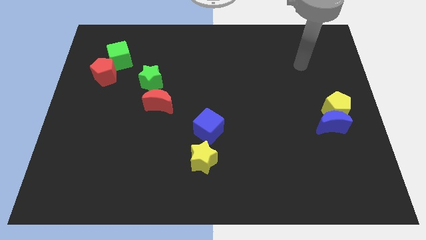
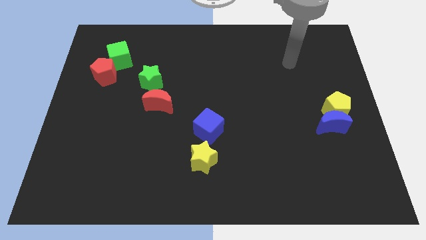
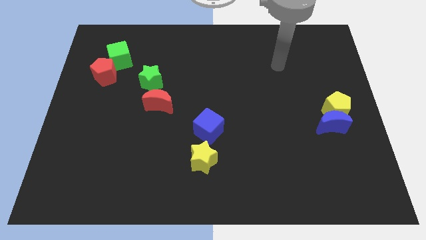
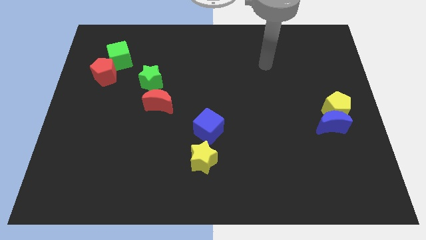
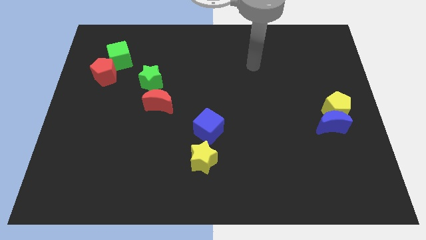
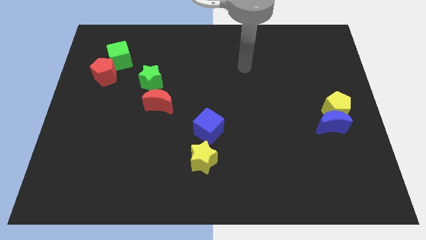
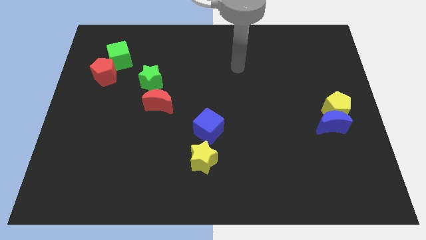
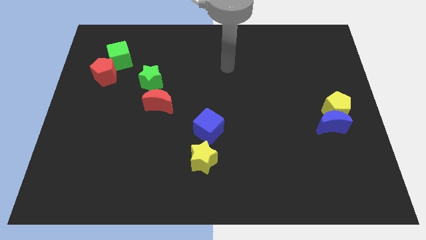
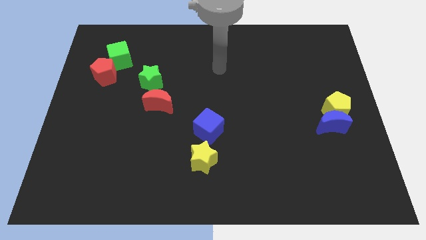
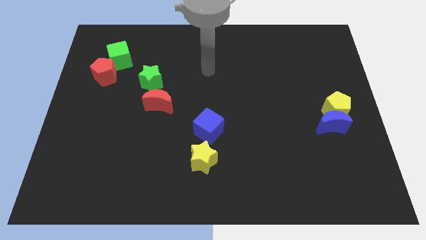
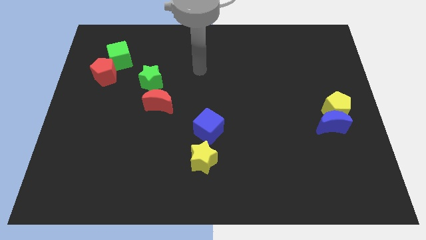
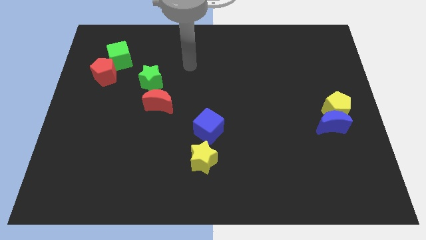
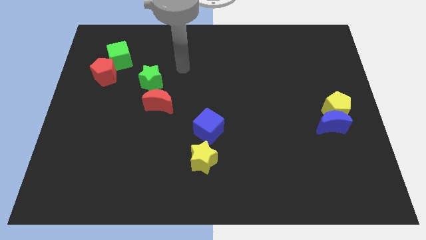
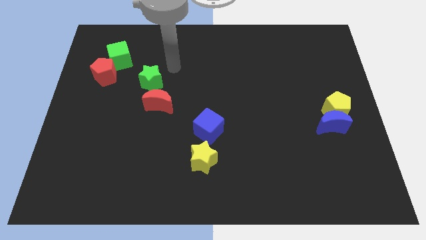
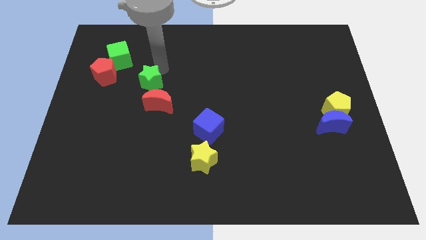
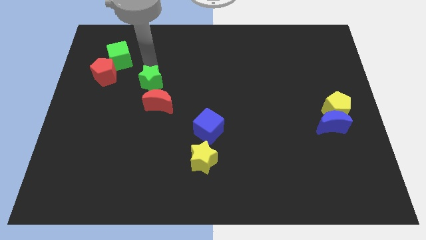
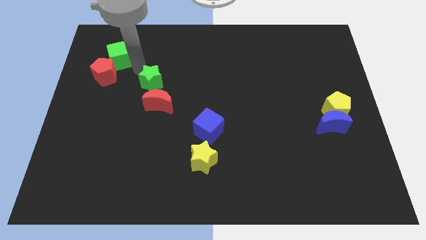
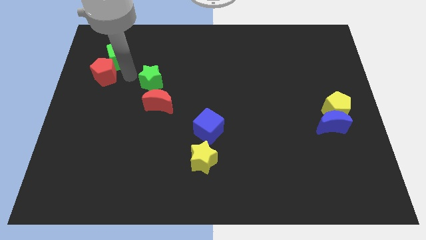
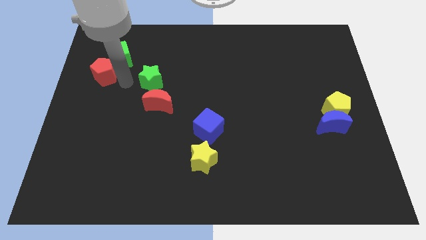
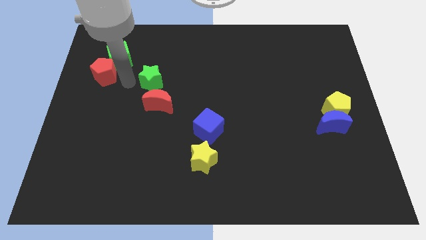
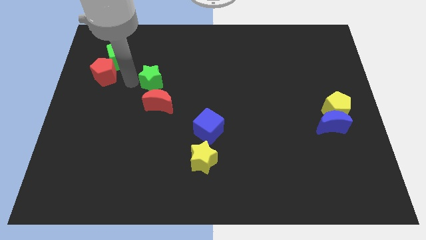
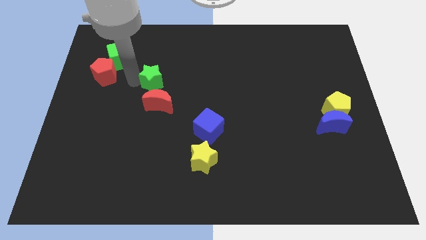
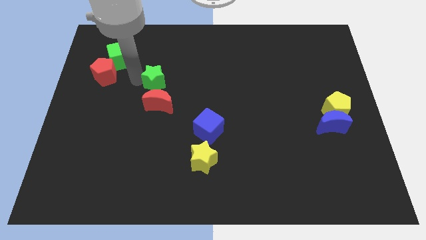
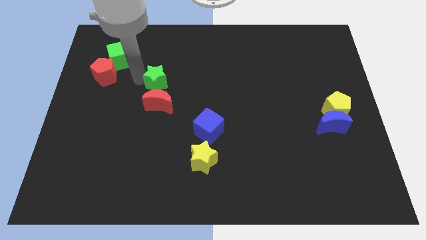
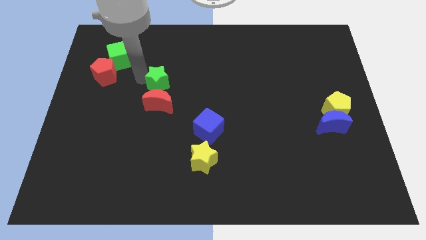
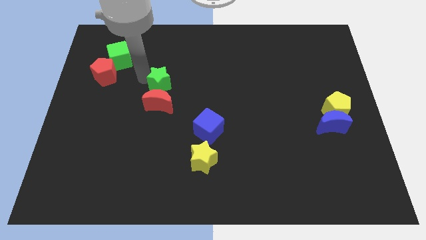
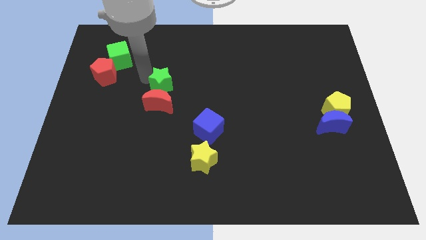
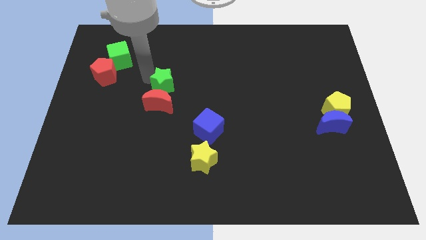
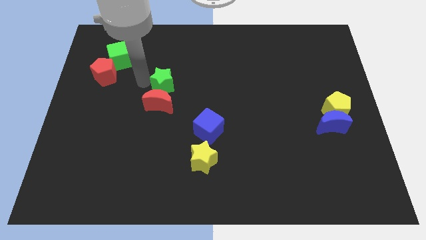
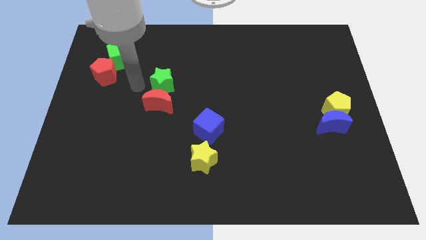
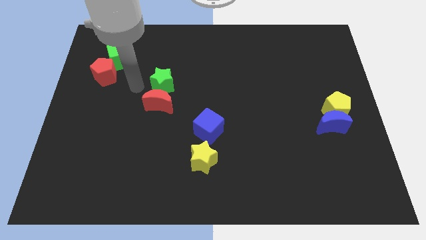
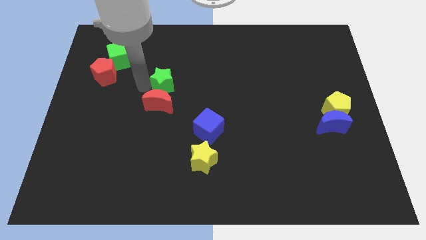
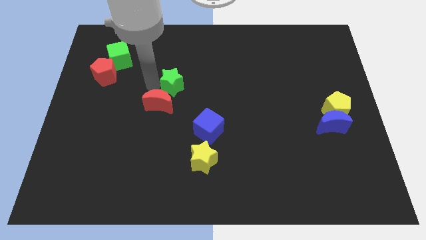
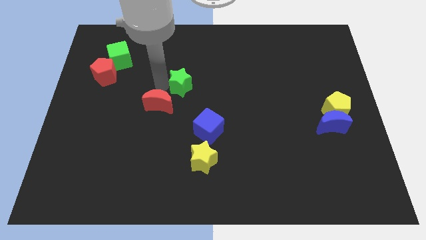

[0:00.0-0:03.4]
push the green star to the right somewhat

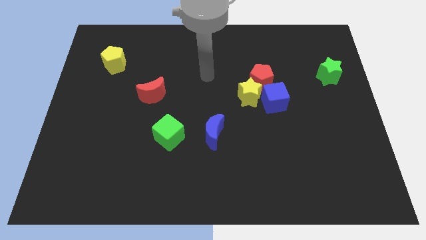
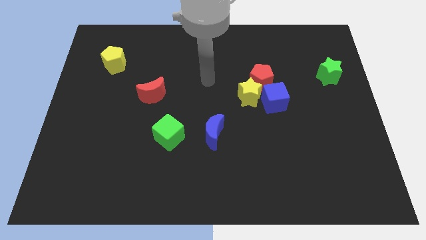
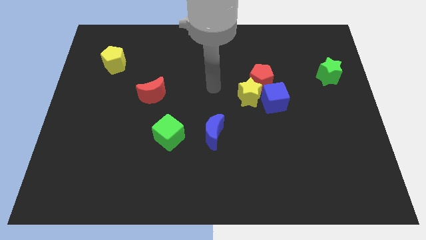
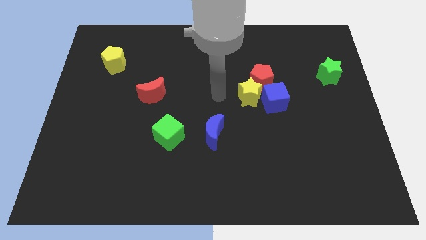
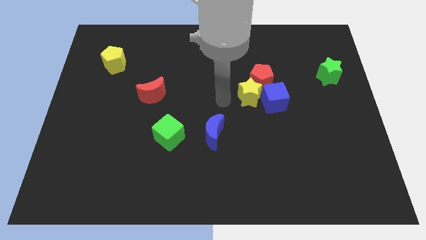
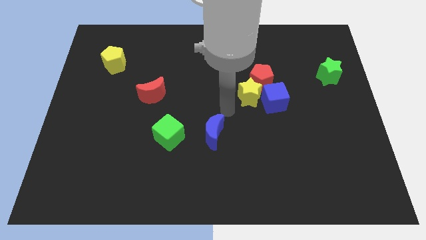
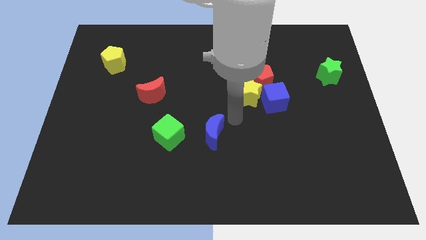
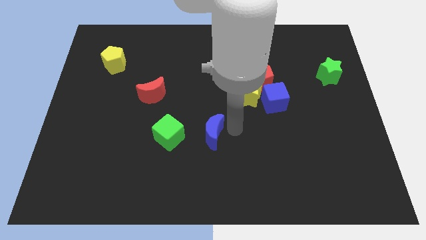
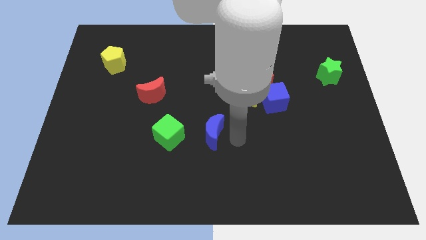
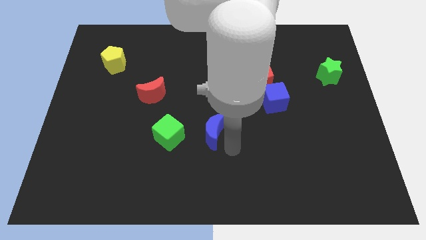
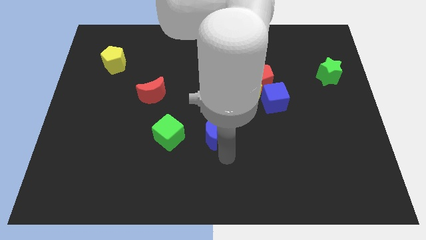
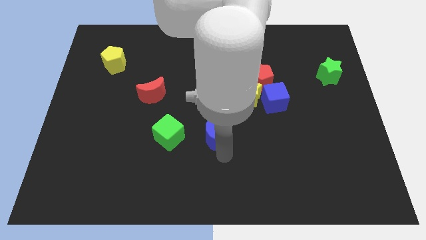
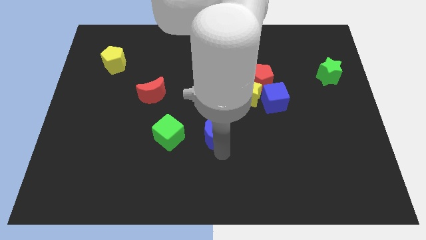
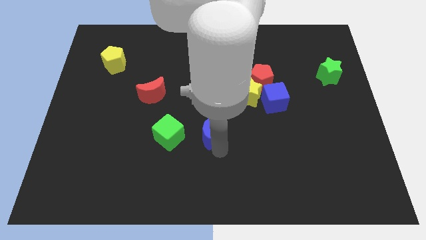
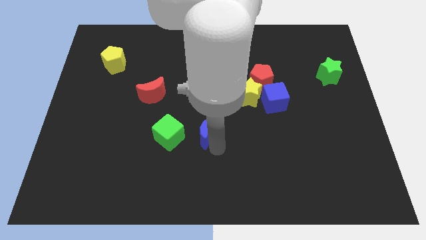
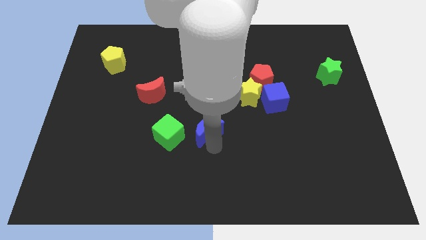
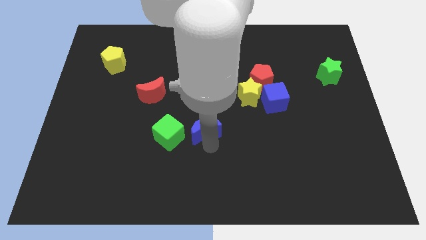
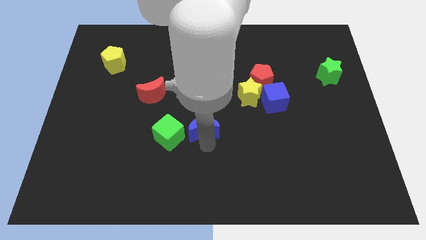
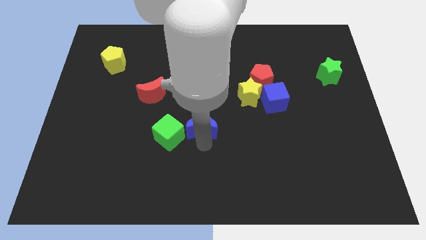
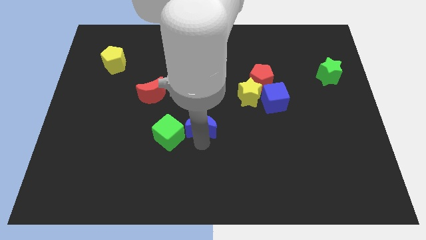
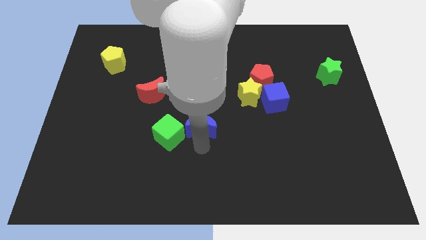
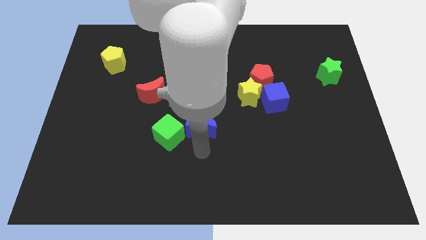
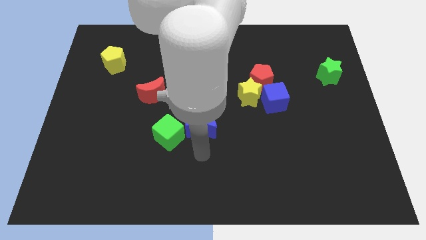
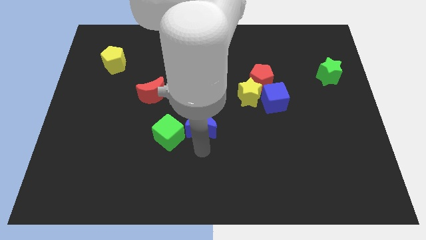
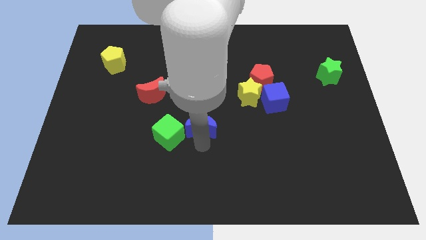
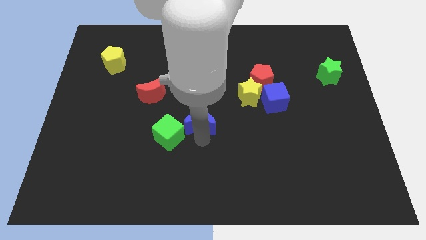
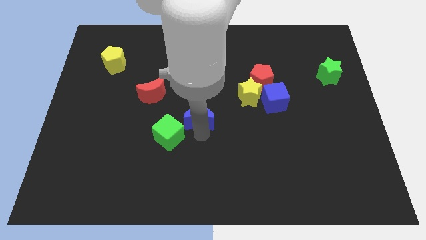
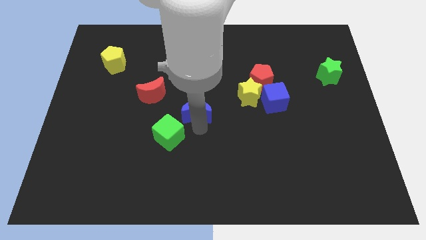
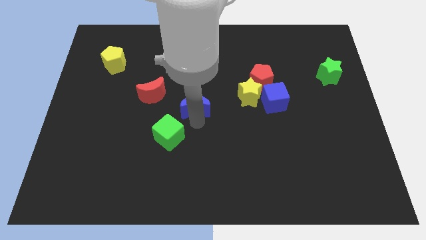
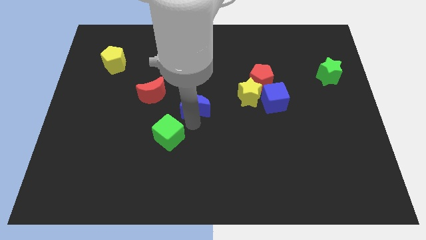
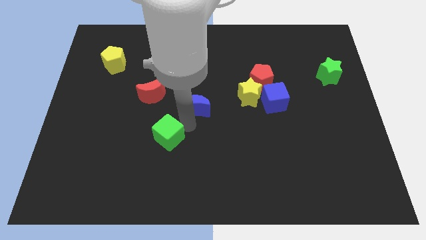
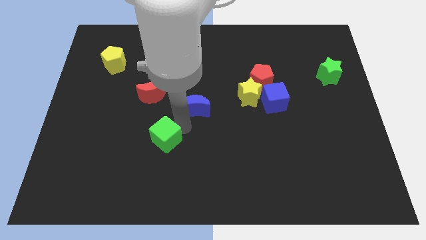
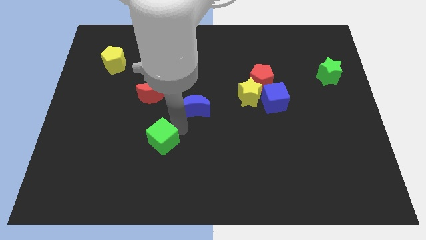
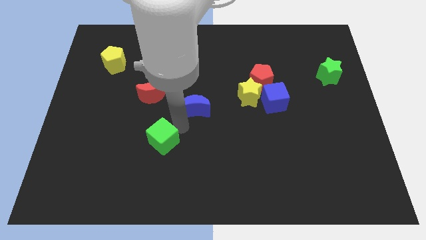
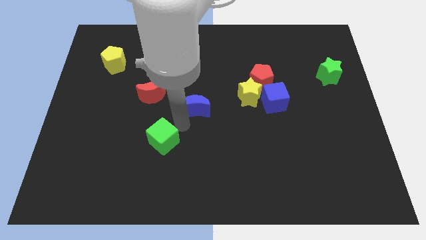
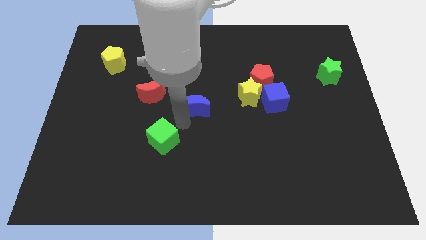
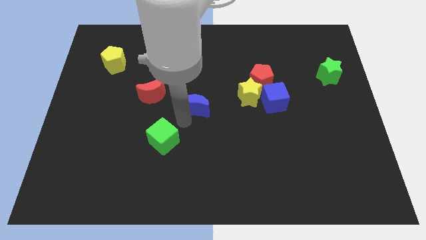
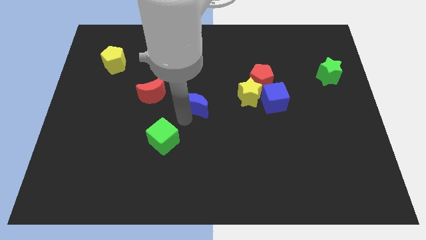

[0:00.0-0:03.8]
slightly move the blue moon up

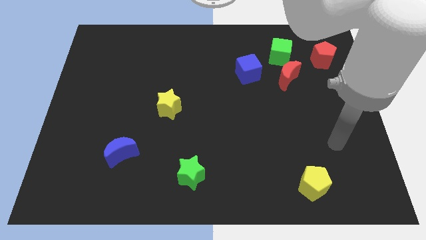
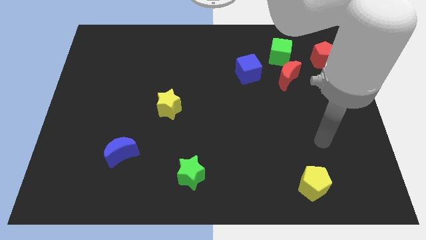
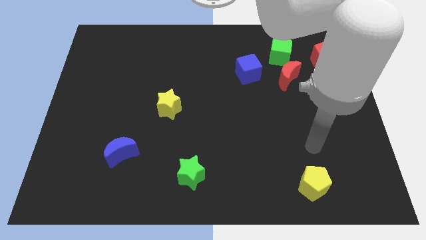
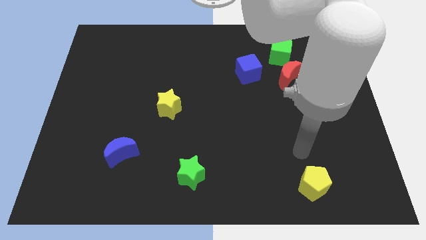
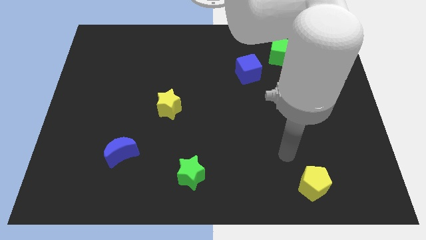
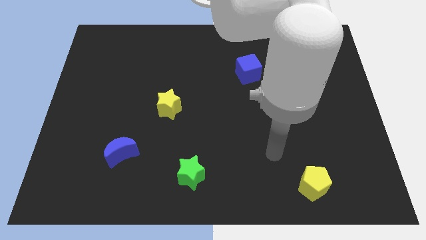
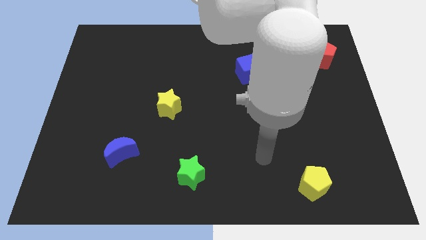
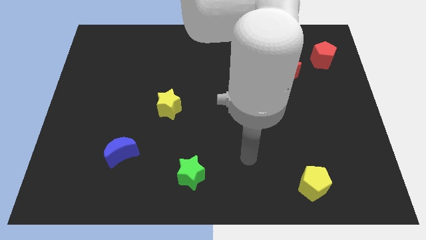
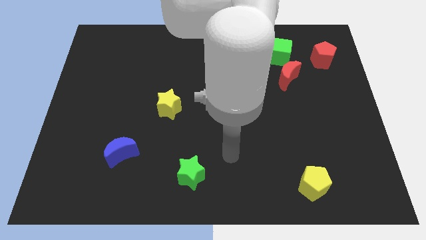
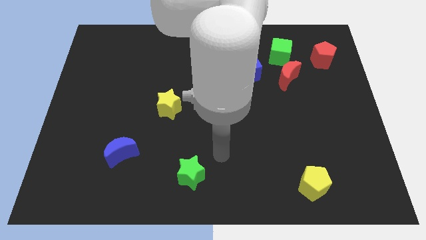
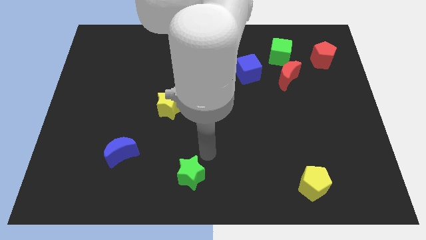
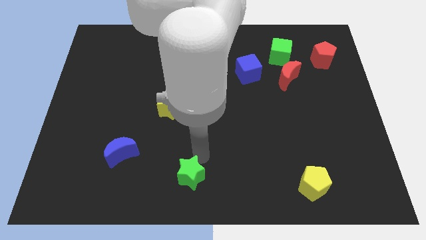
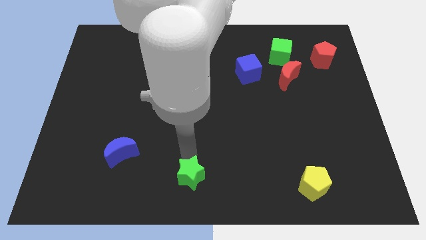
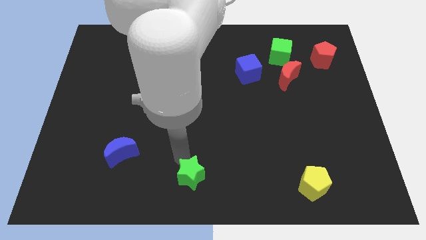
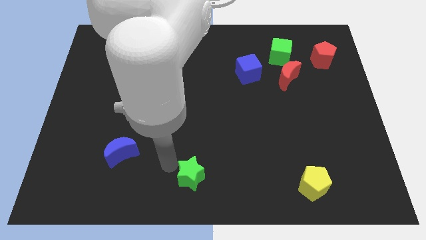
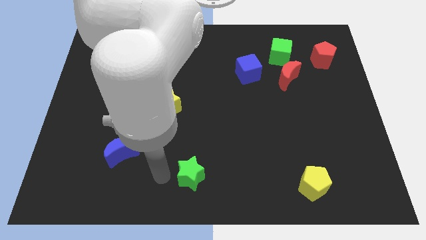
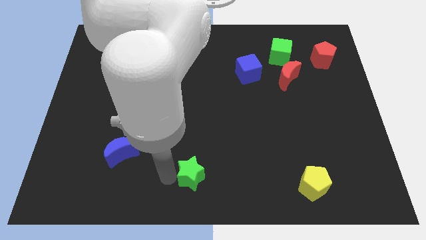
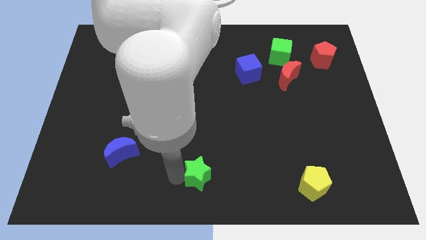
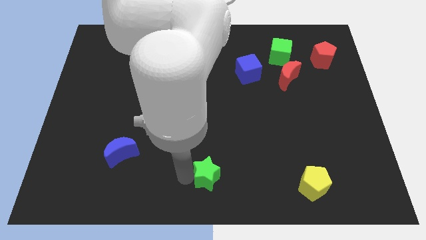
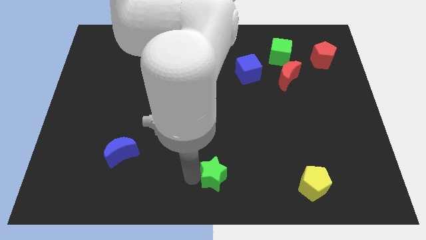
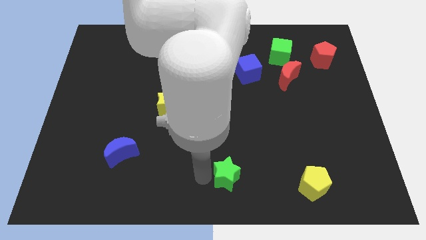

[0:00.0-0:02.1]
slightly slide the green star right
